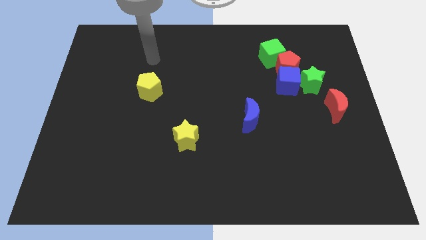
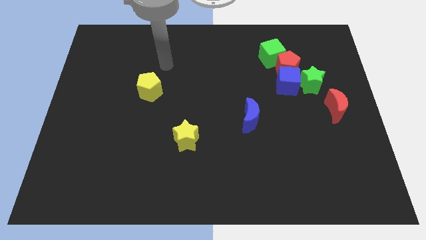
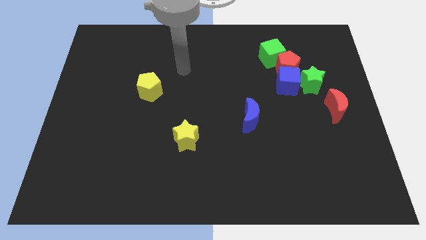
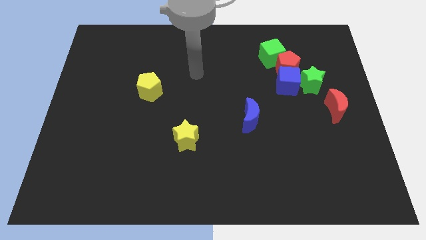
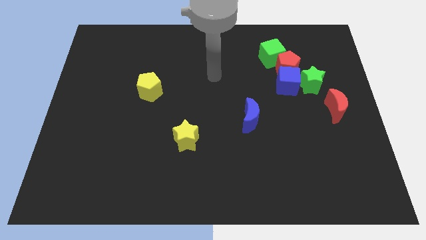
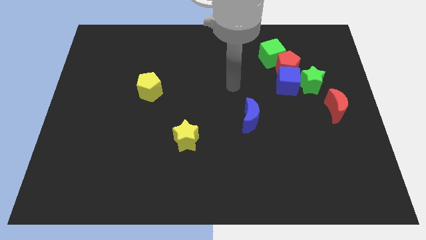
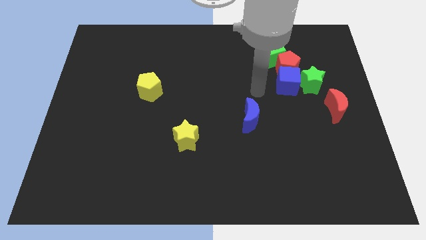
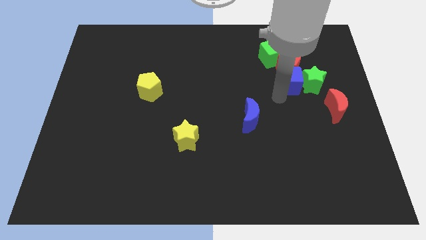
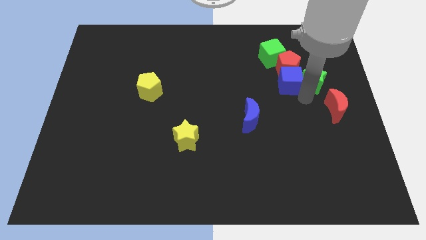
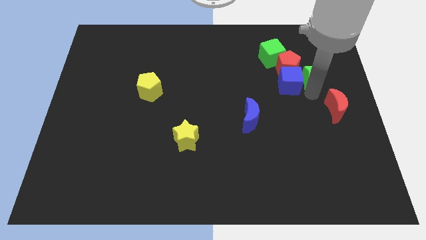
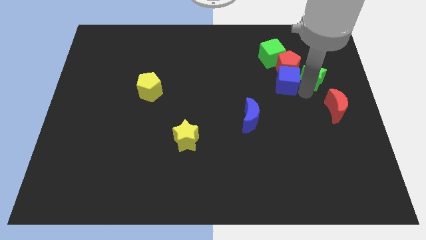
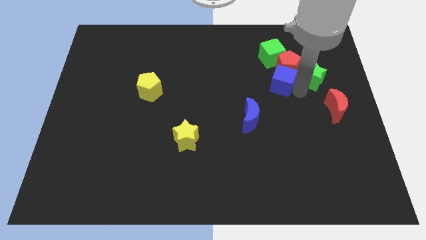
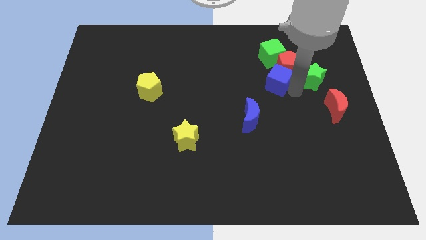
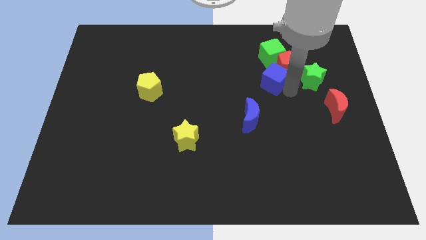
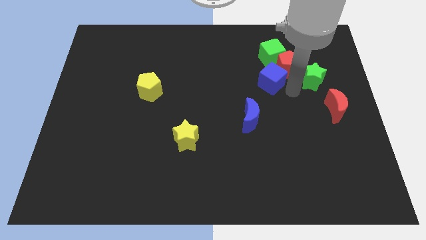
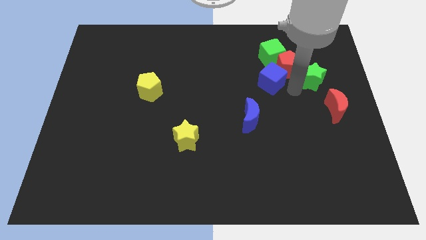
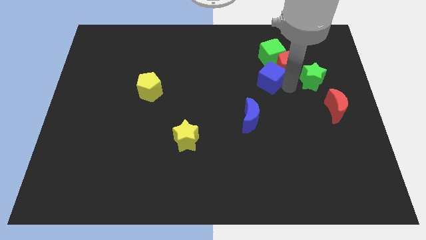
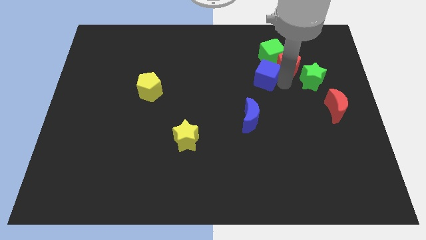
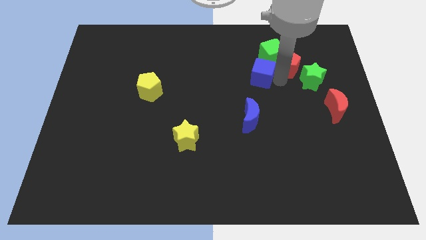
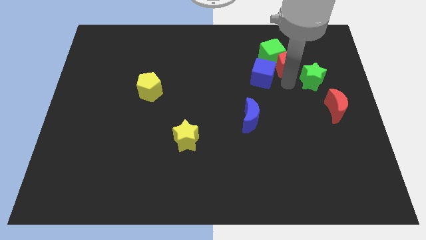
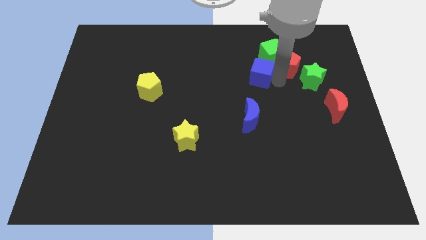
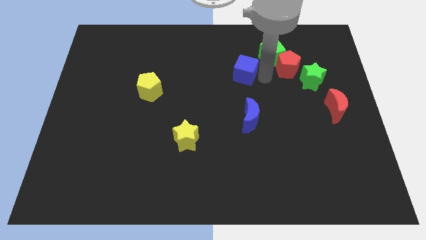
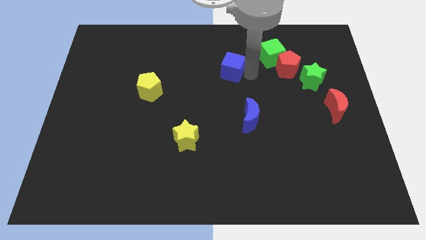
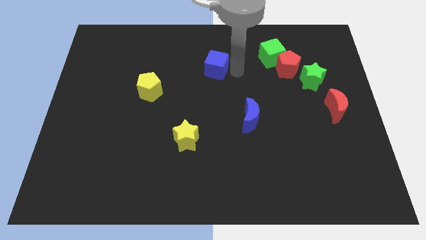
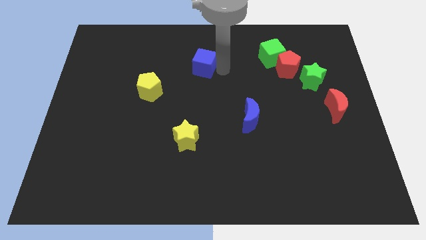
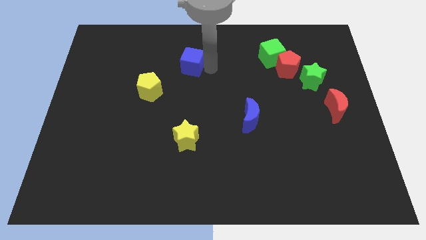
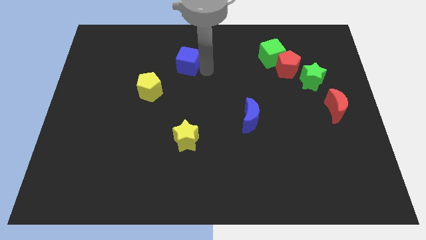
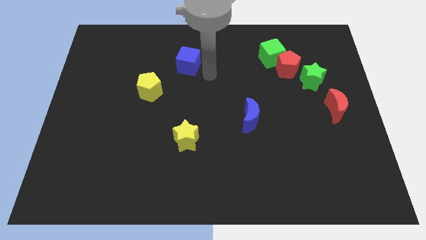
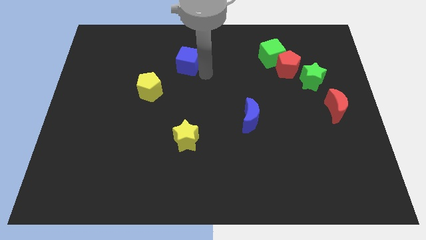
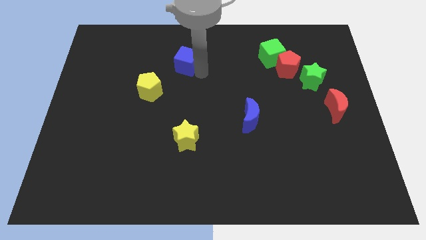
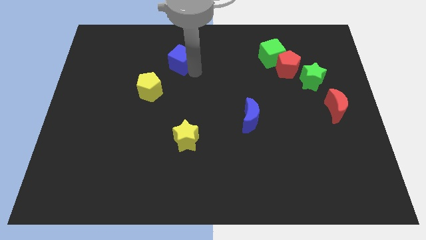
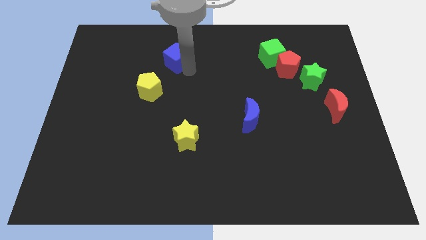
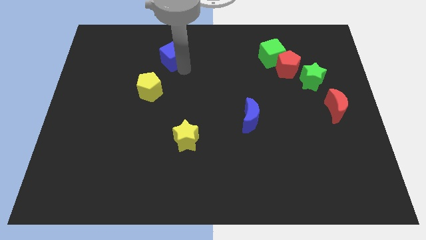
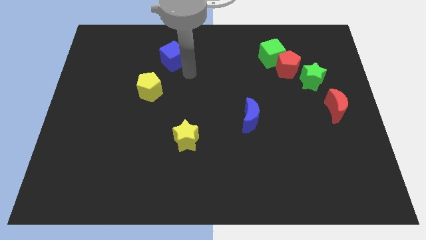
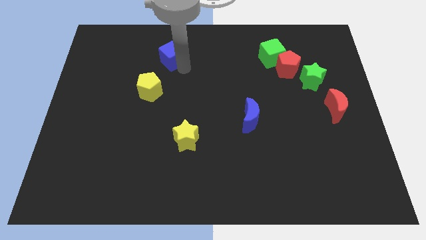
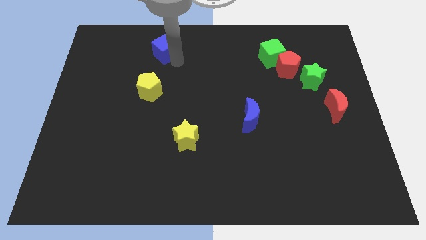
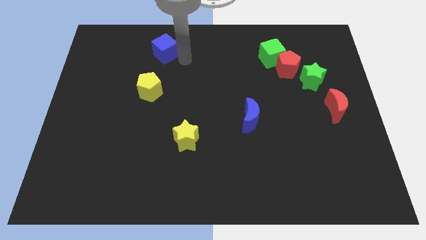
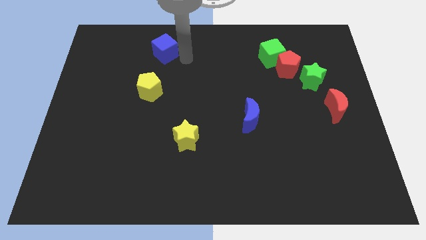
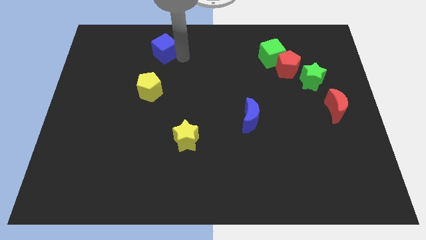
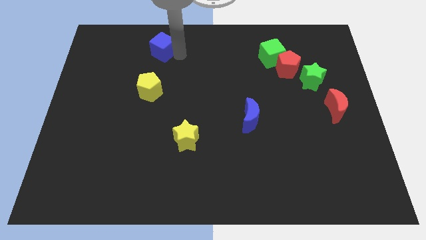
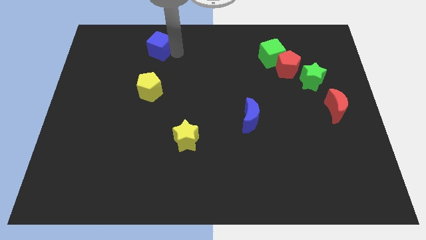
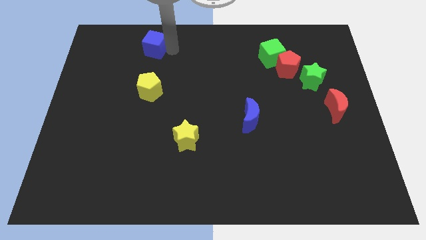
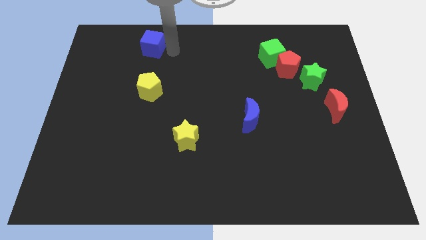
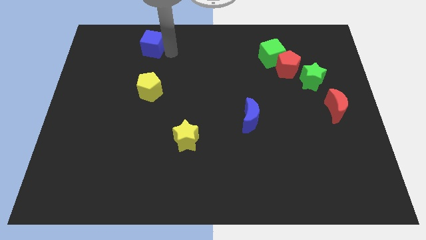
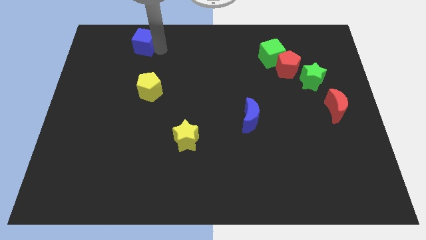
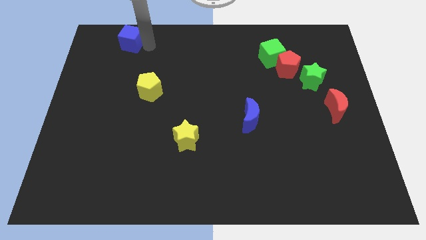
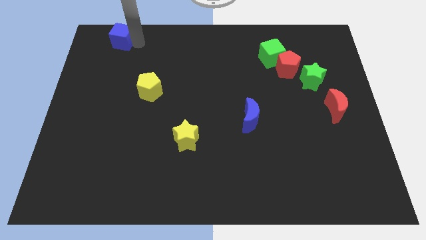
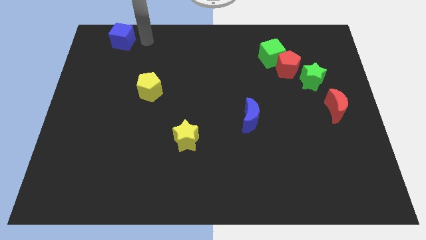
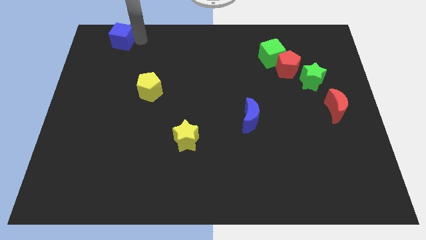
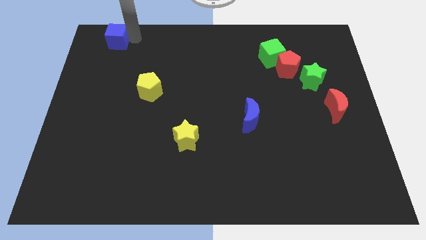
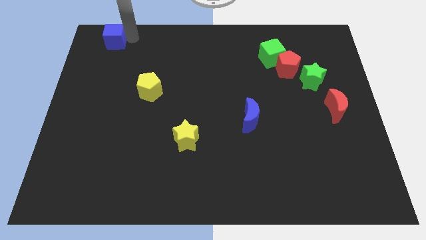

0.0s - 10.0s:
put the blue cube to the top left

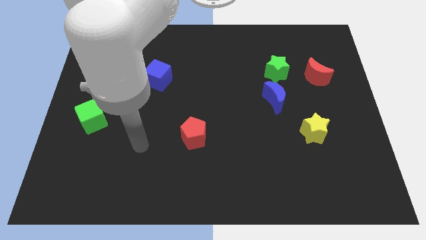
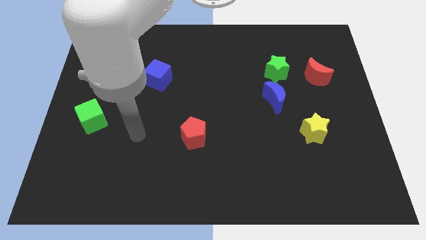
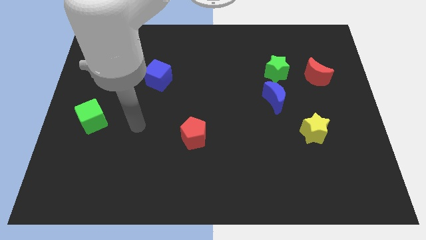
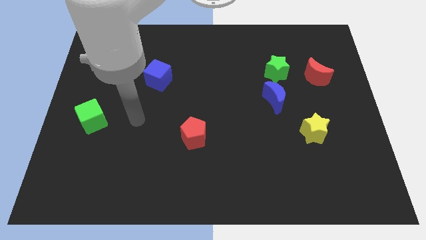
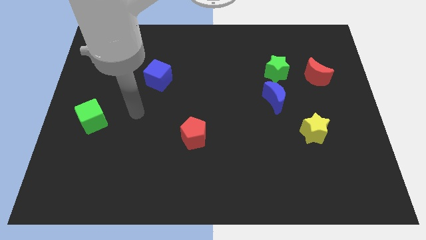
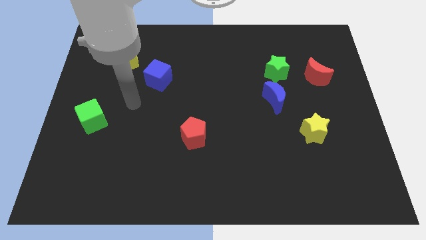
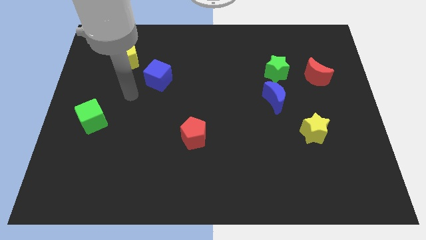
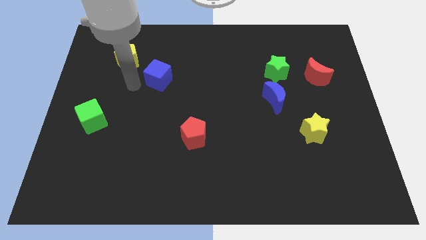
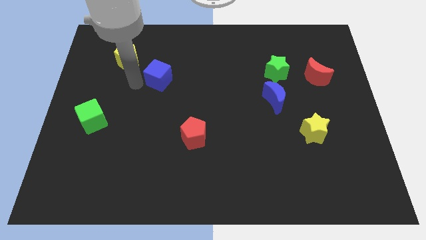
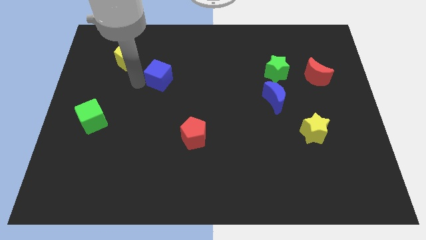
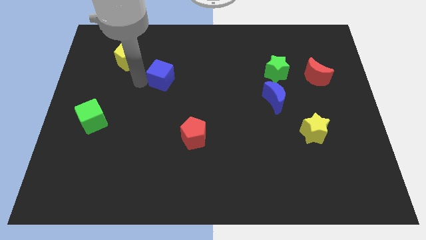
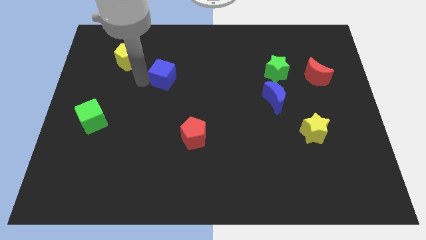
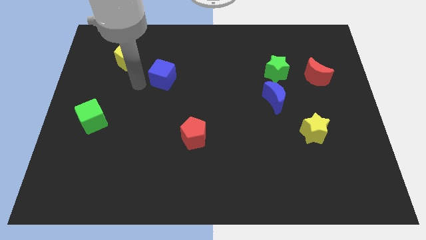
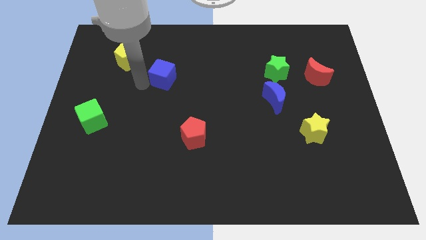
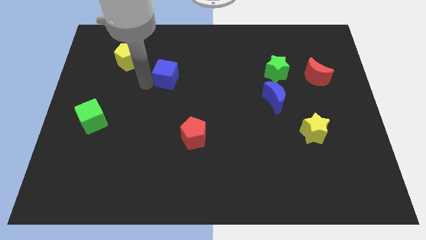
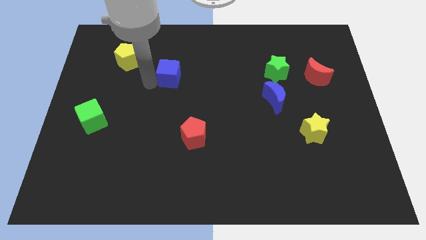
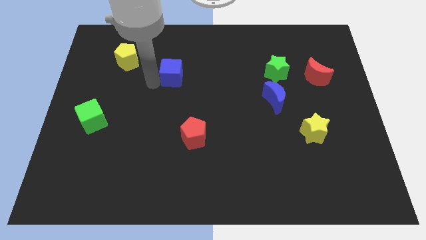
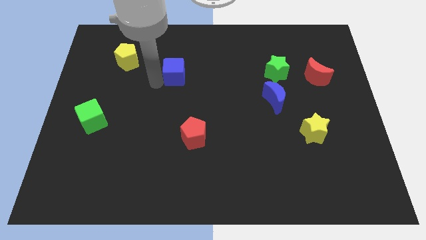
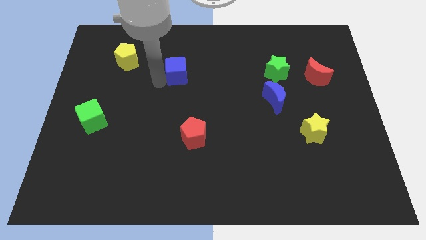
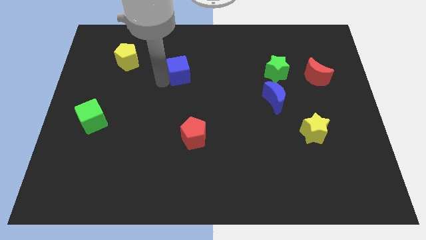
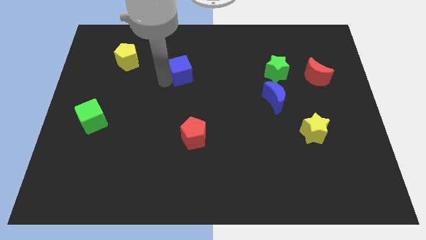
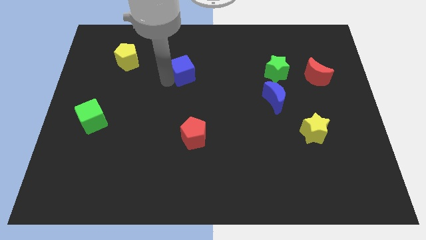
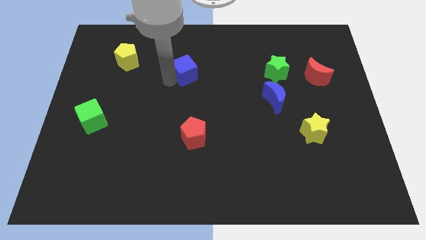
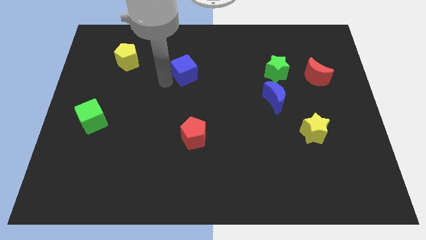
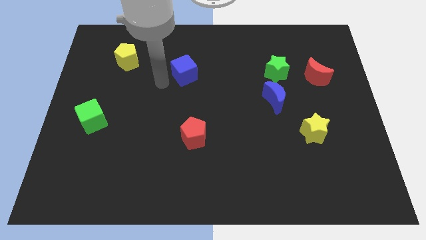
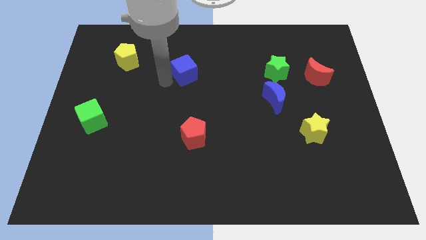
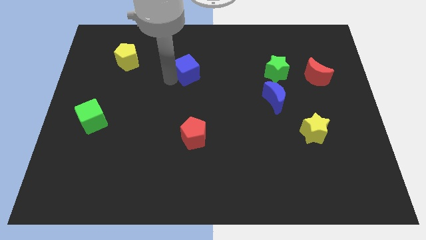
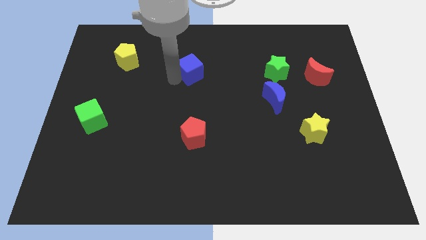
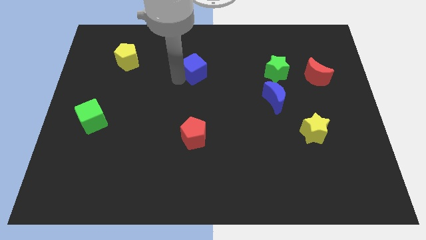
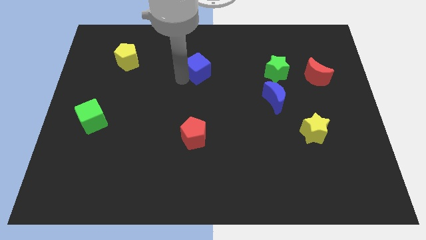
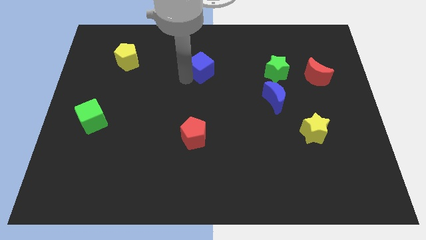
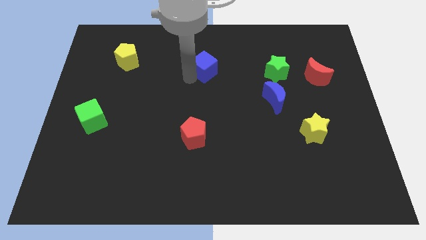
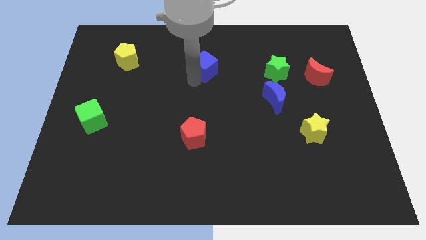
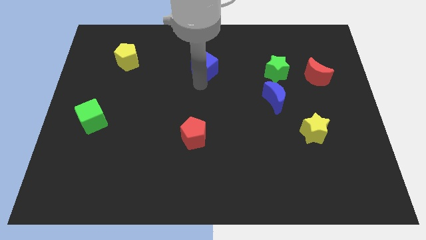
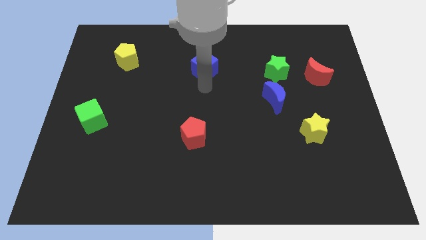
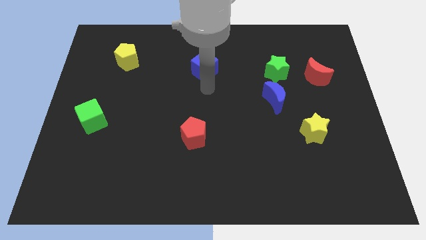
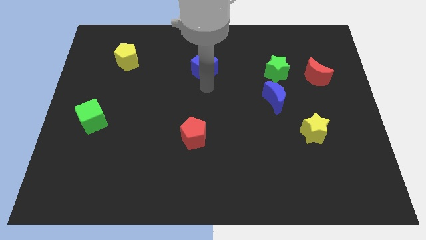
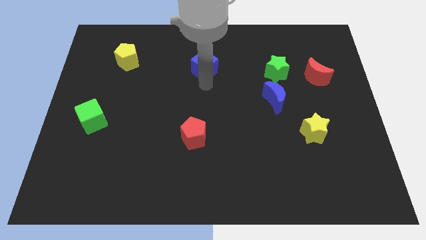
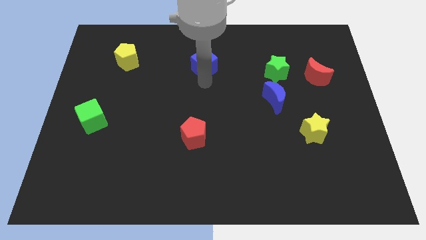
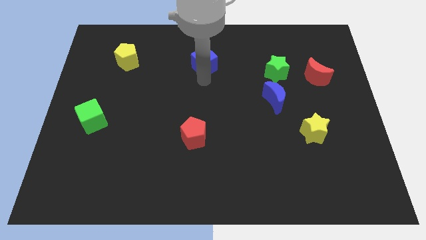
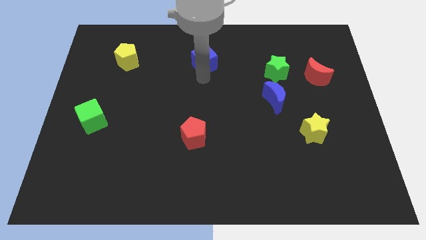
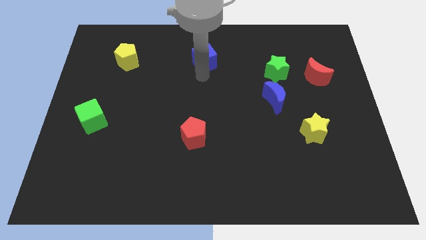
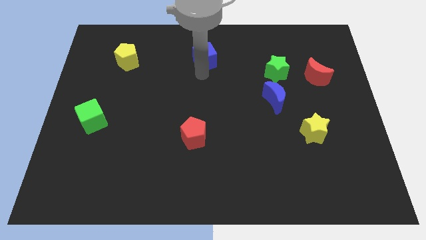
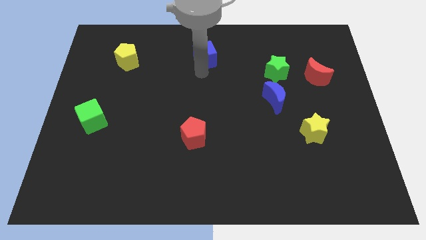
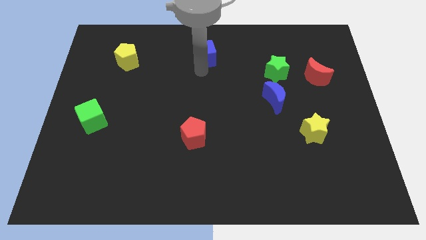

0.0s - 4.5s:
put the blue cube to the top side
